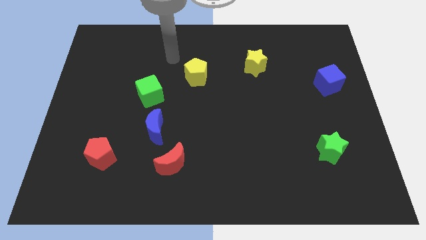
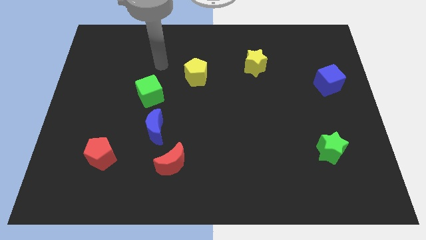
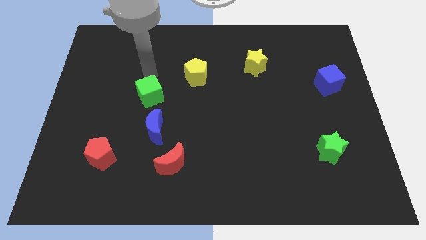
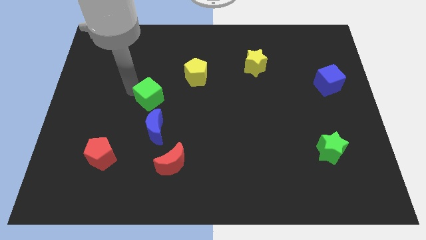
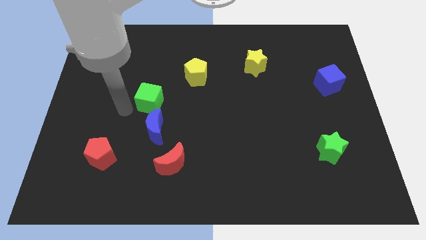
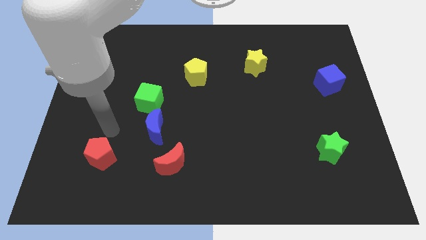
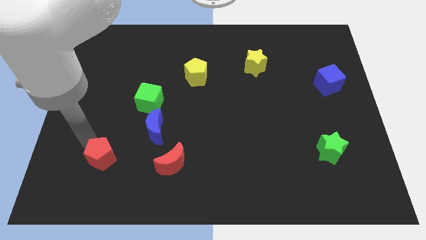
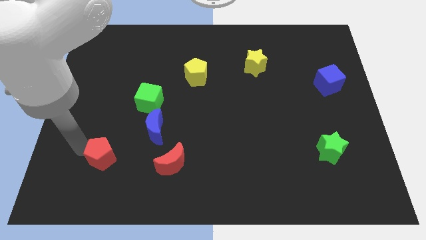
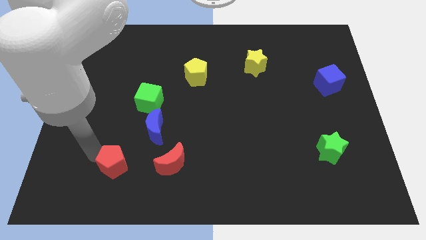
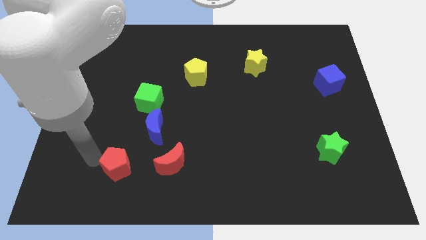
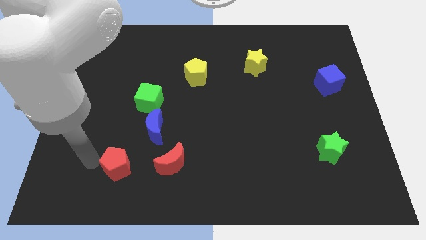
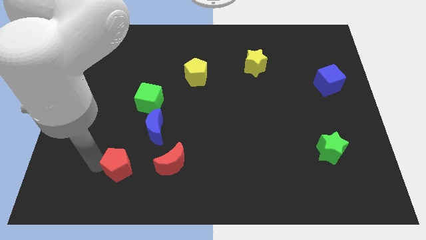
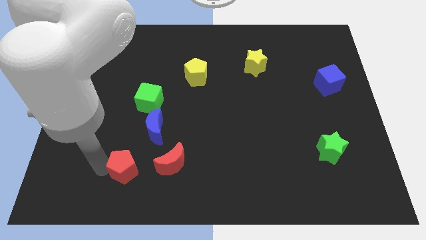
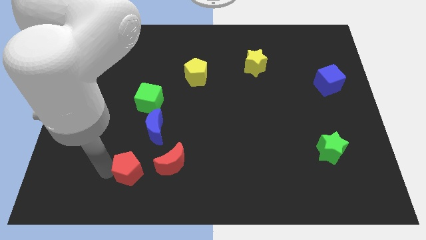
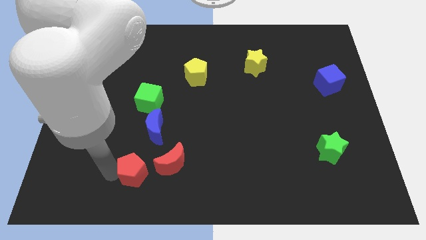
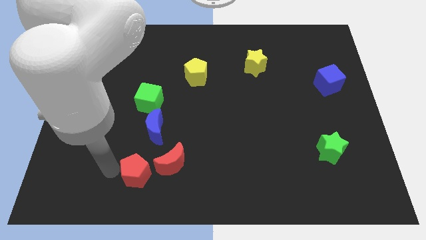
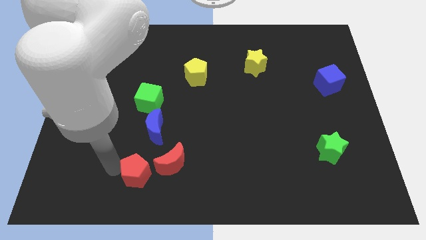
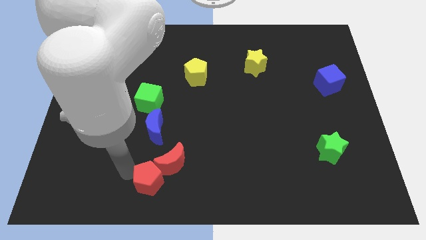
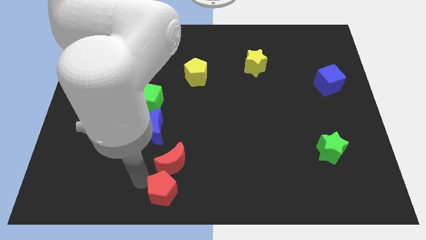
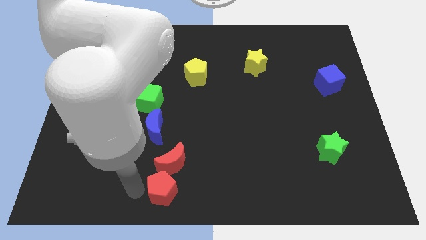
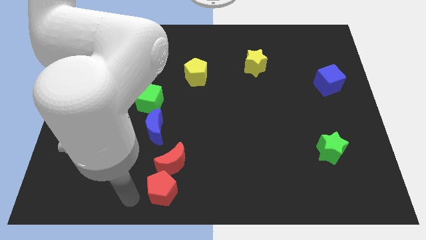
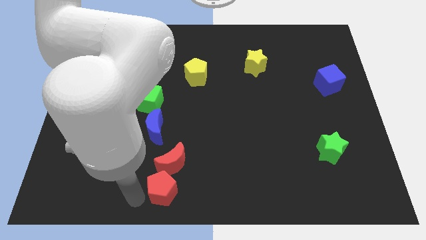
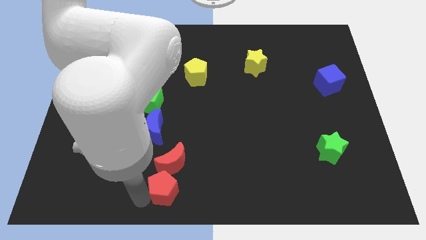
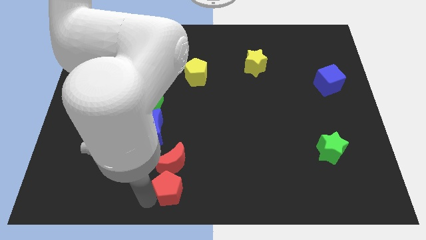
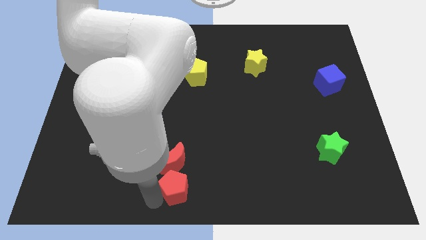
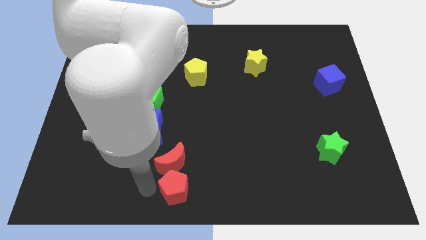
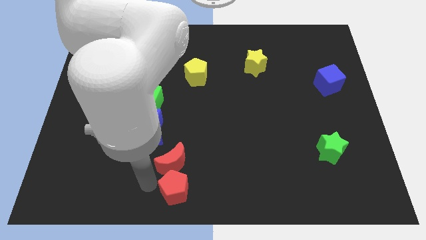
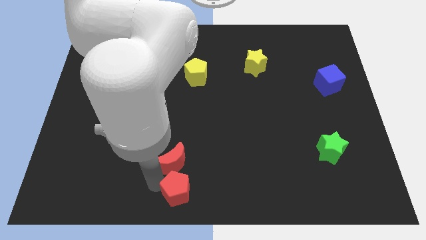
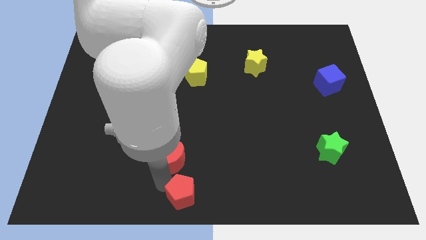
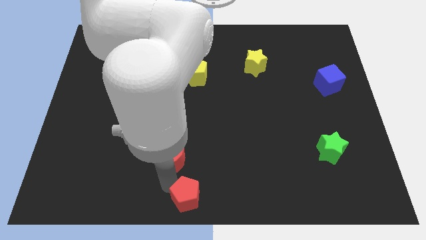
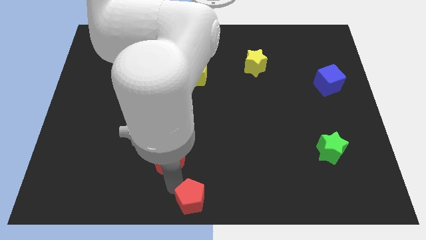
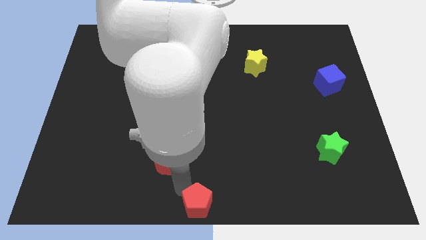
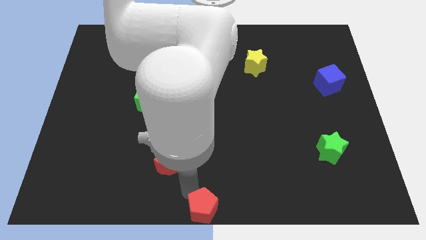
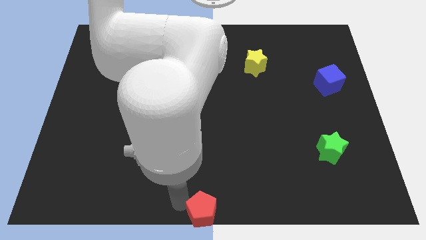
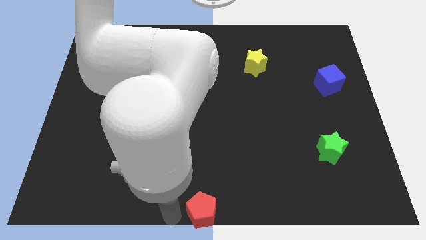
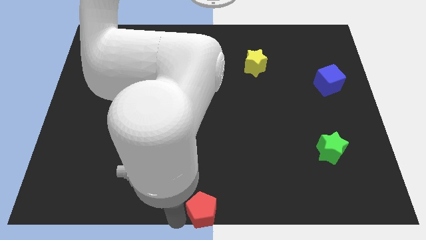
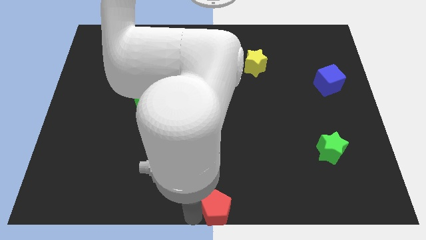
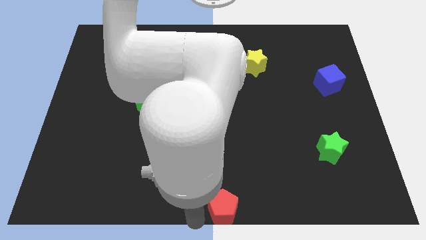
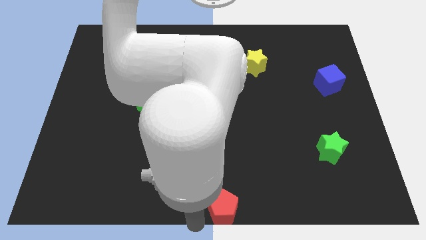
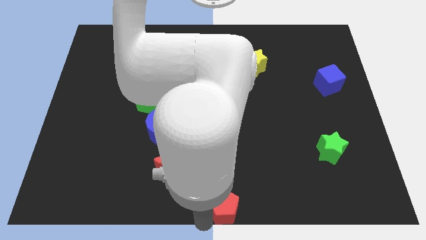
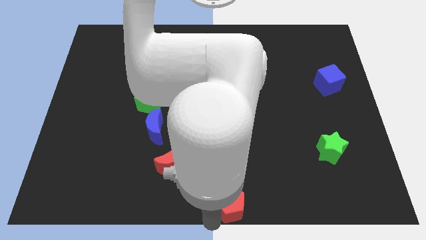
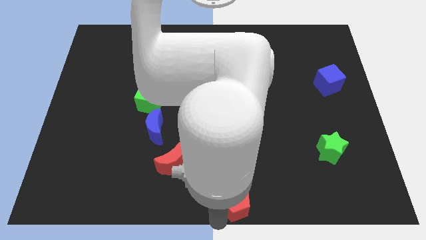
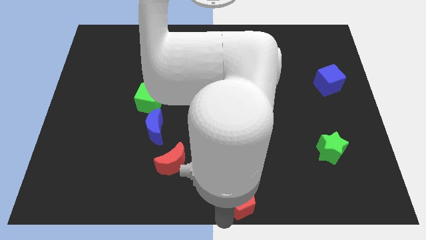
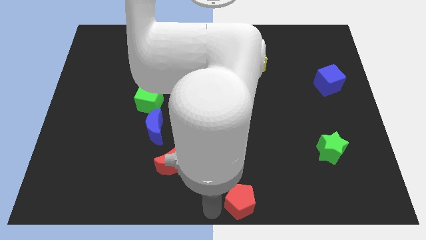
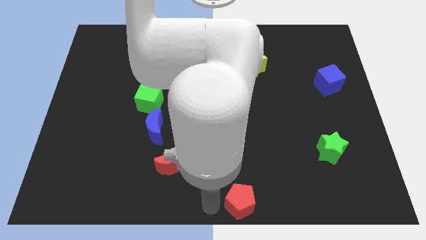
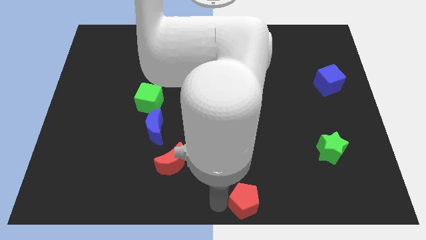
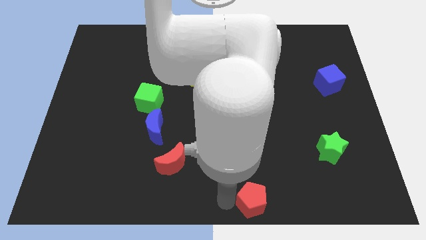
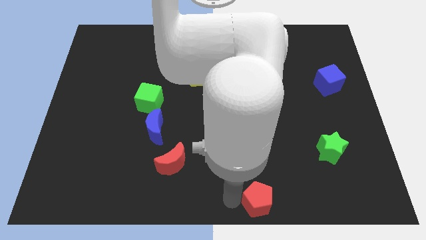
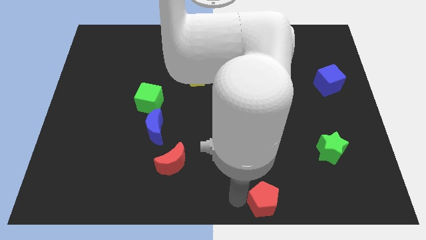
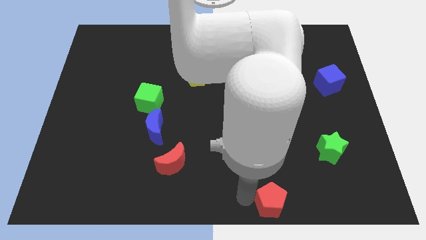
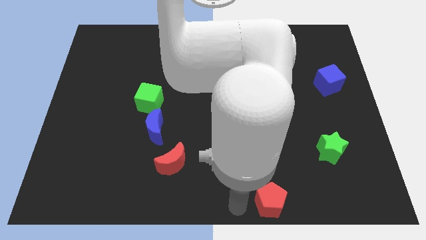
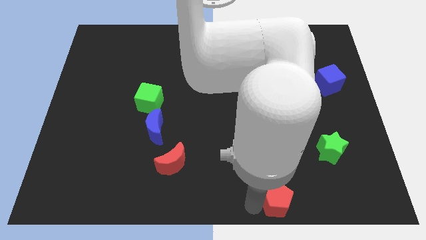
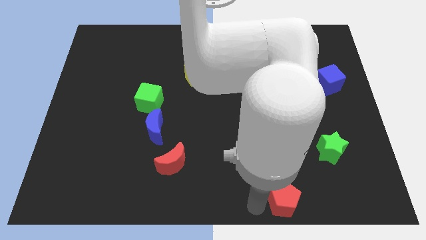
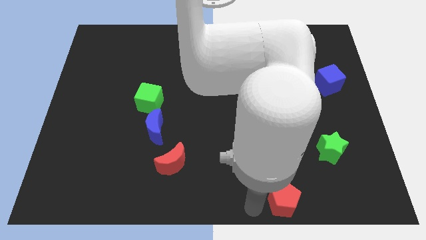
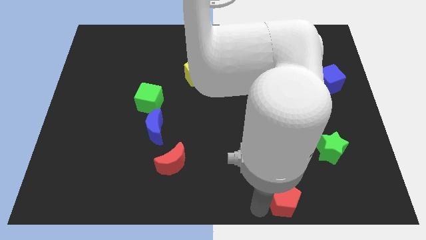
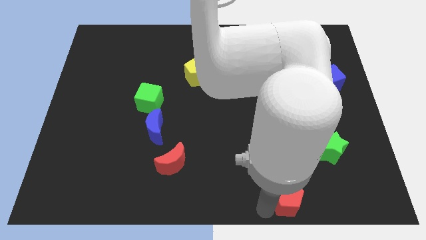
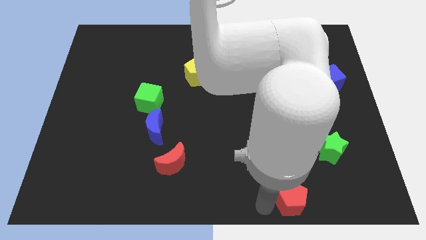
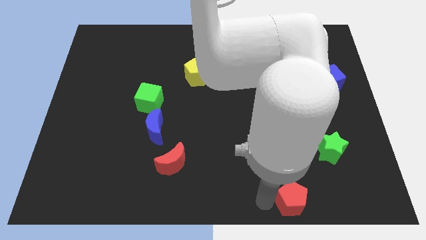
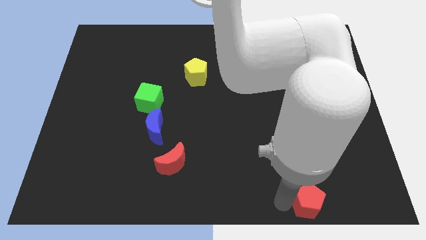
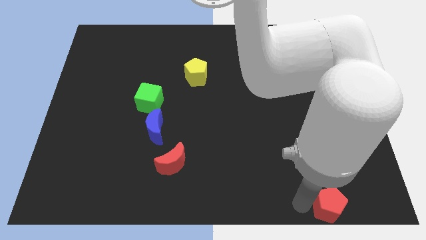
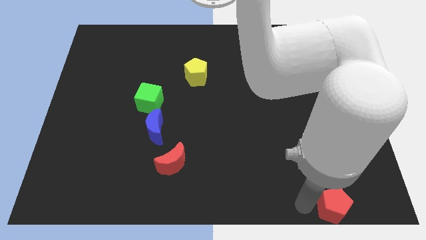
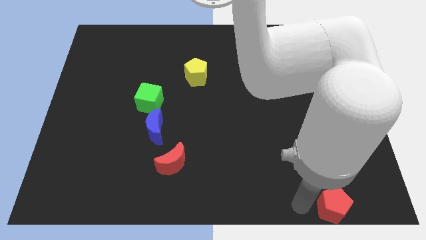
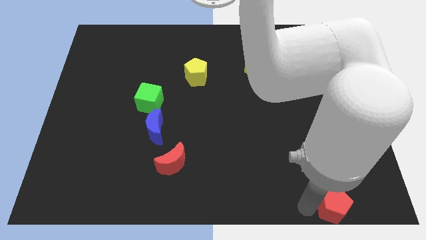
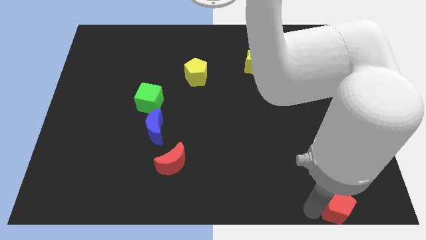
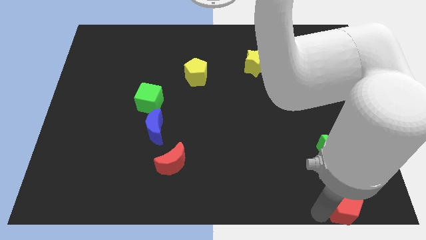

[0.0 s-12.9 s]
move the red pentagon to the bottom right of the board
